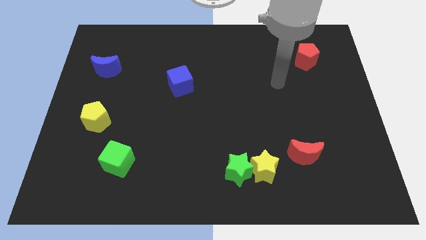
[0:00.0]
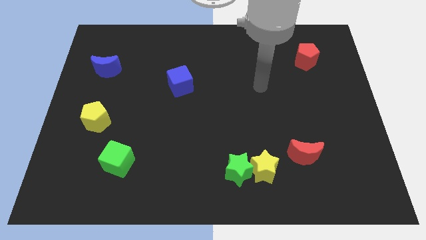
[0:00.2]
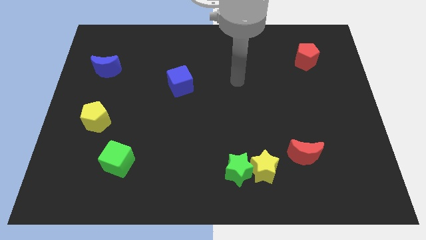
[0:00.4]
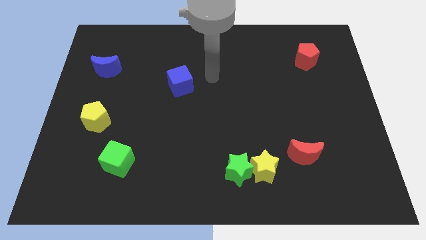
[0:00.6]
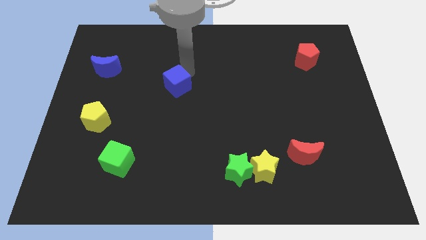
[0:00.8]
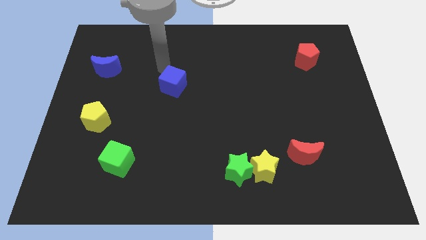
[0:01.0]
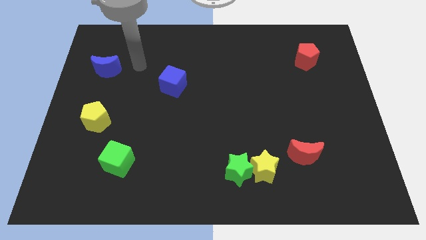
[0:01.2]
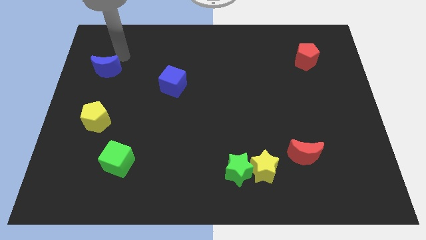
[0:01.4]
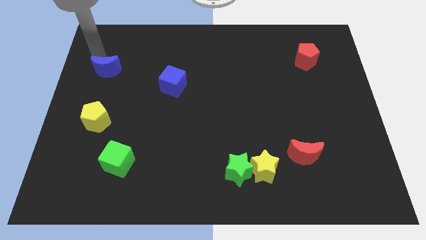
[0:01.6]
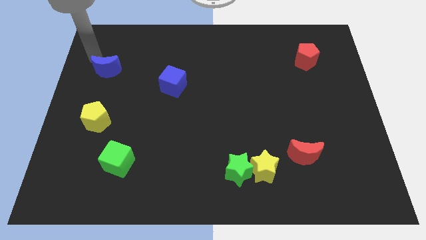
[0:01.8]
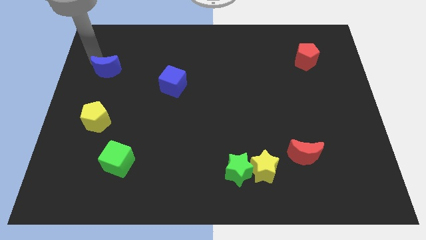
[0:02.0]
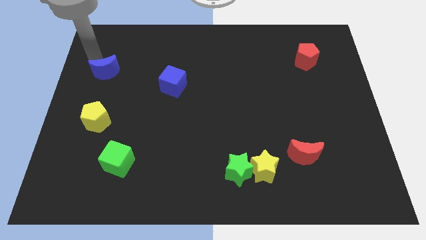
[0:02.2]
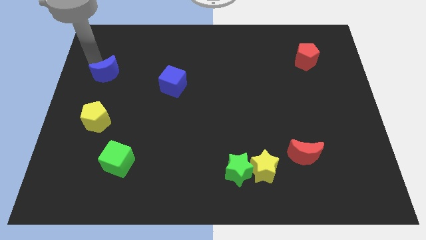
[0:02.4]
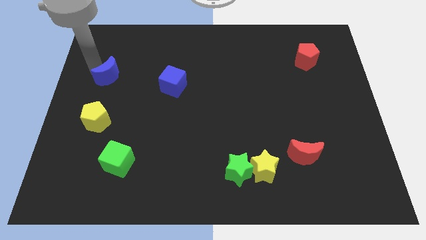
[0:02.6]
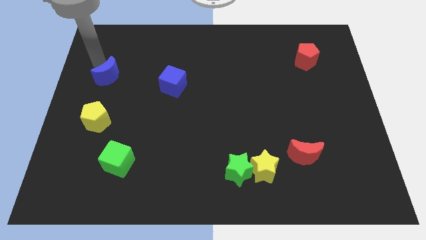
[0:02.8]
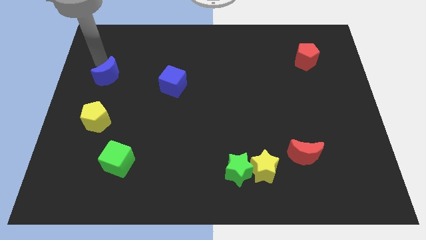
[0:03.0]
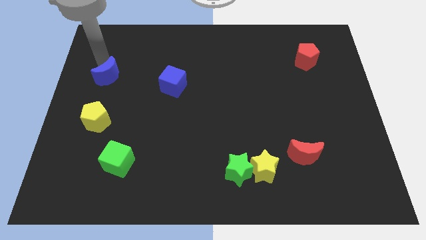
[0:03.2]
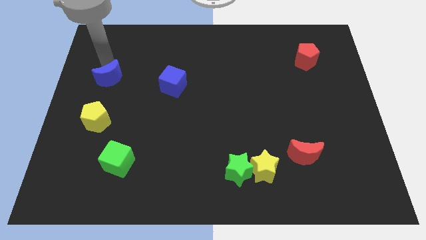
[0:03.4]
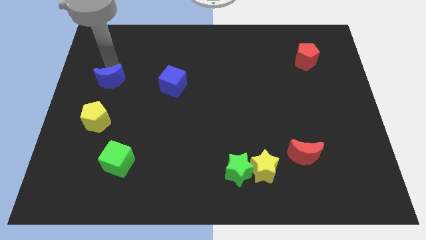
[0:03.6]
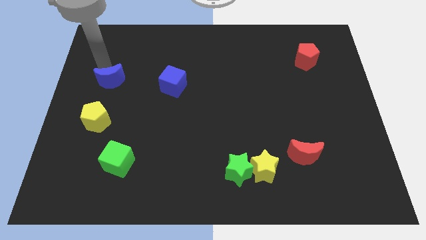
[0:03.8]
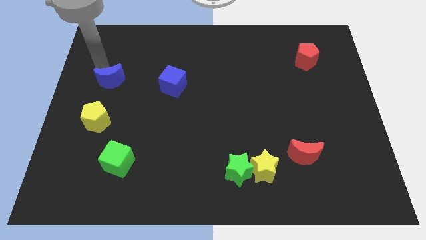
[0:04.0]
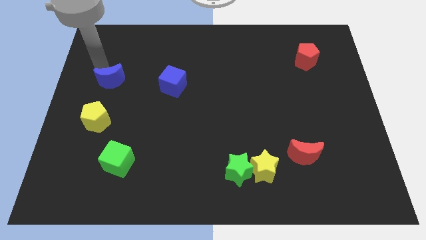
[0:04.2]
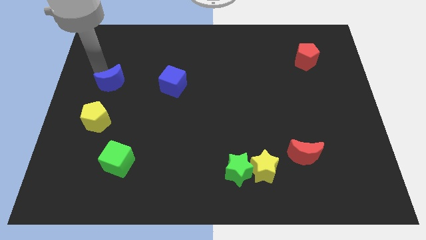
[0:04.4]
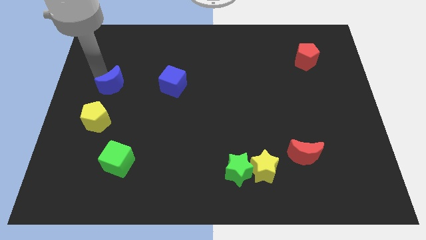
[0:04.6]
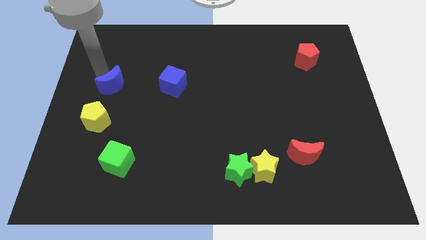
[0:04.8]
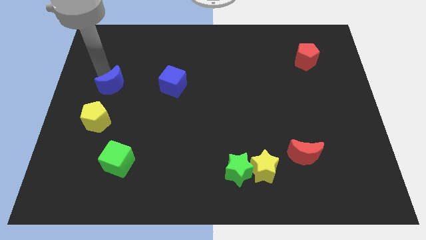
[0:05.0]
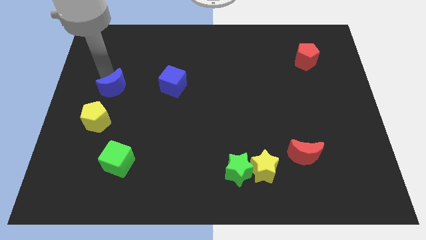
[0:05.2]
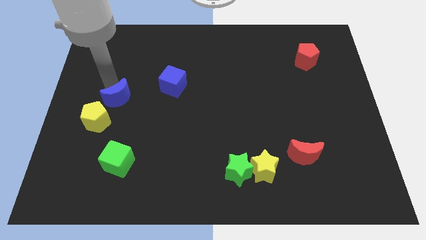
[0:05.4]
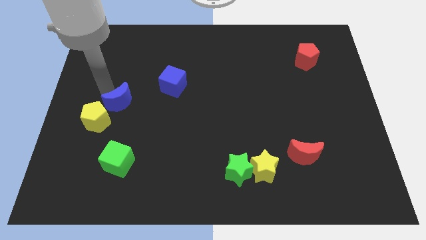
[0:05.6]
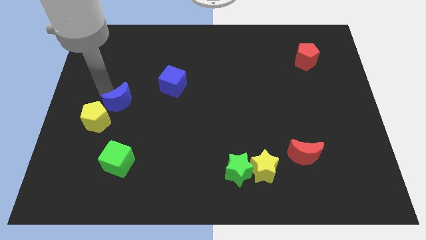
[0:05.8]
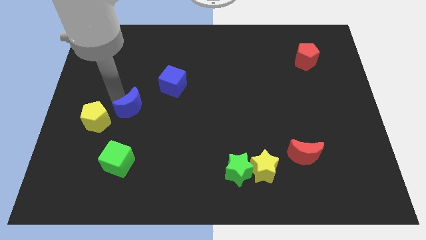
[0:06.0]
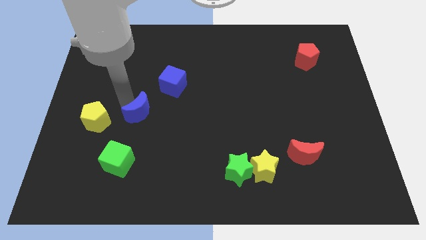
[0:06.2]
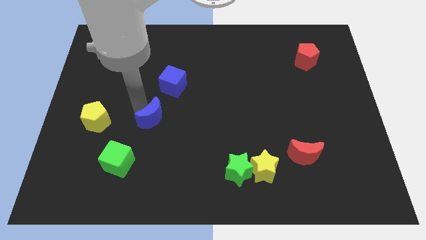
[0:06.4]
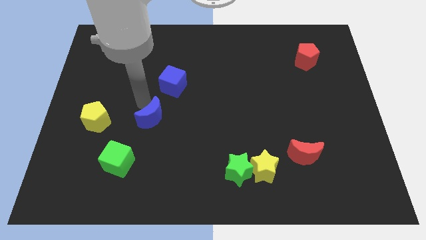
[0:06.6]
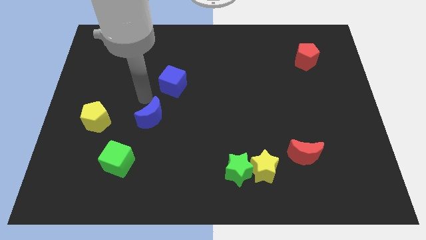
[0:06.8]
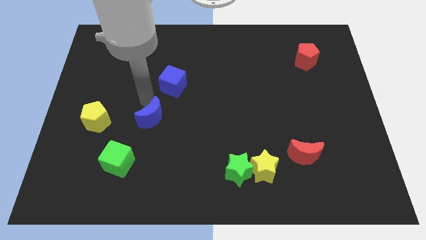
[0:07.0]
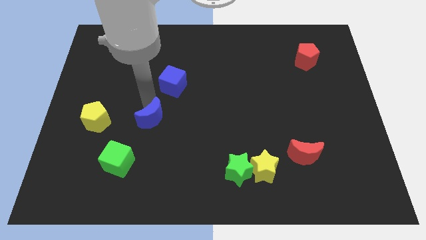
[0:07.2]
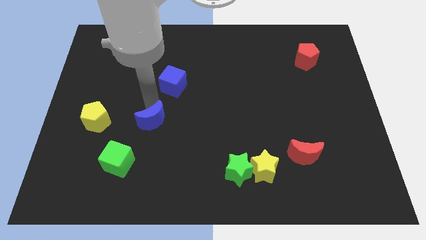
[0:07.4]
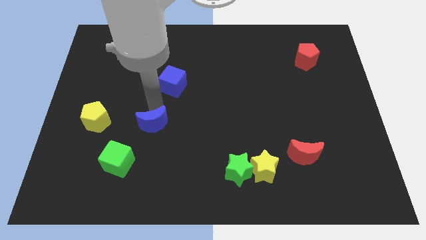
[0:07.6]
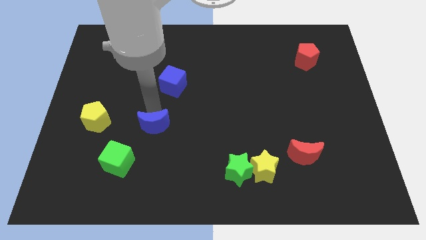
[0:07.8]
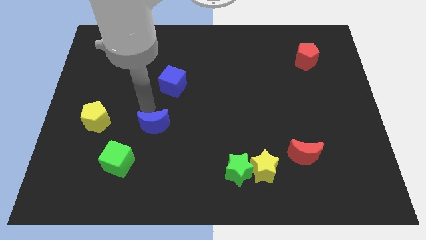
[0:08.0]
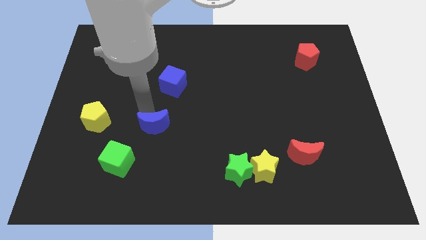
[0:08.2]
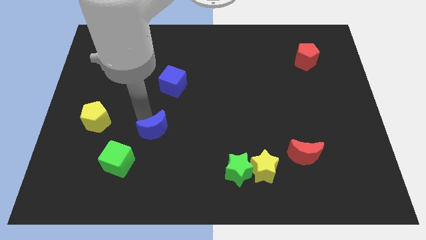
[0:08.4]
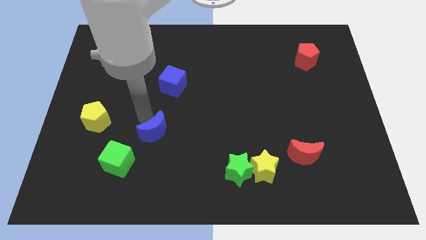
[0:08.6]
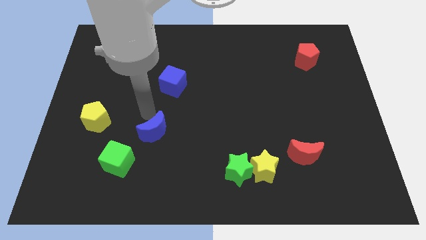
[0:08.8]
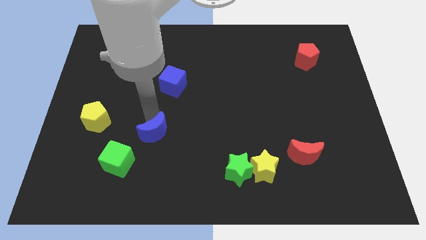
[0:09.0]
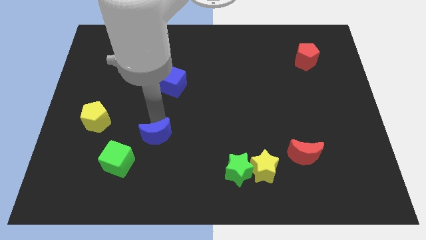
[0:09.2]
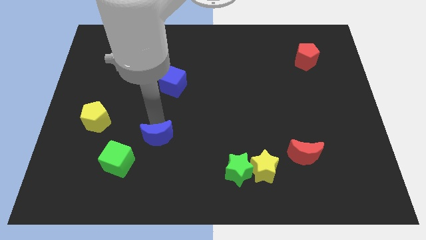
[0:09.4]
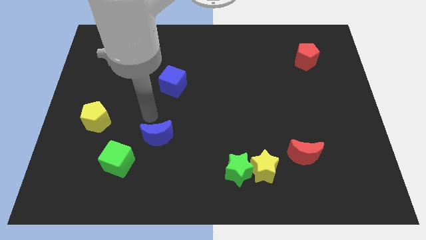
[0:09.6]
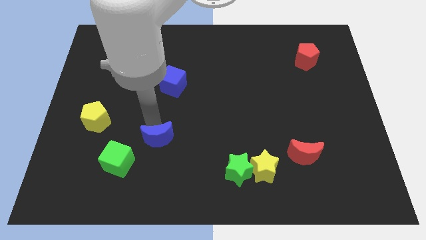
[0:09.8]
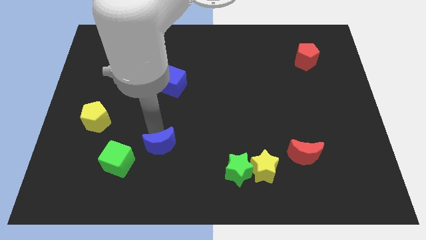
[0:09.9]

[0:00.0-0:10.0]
slide the blue moon to the right side of the green cube
